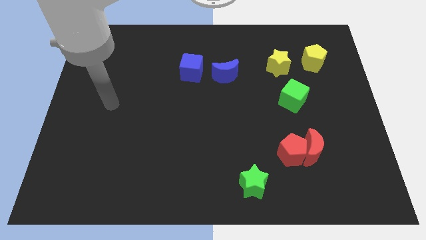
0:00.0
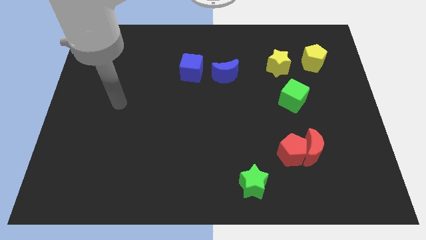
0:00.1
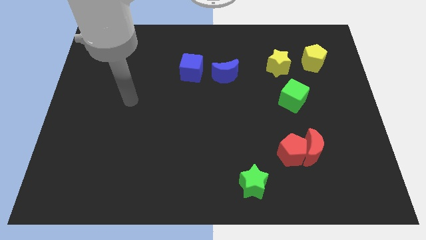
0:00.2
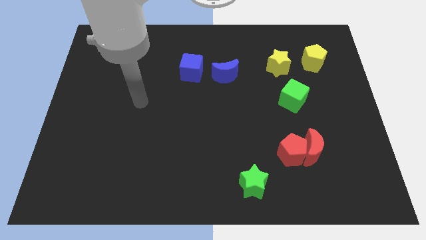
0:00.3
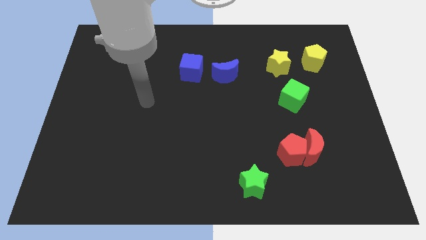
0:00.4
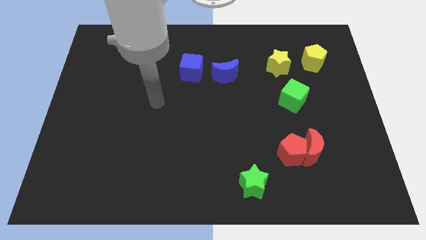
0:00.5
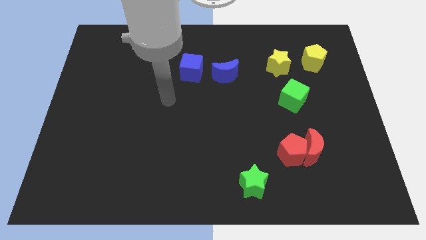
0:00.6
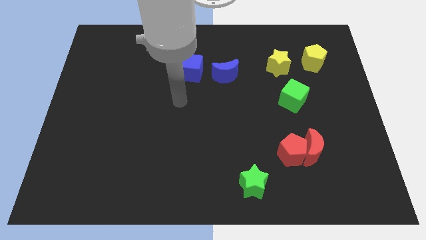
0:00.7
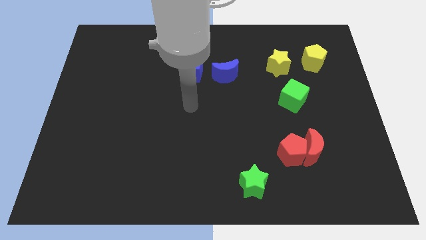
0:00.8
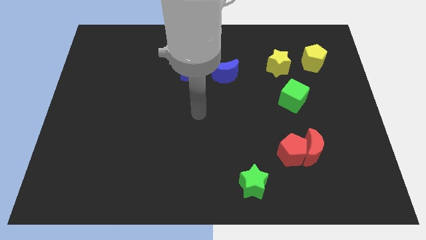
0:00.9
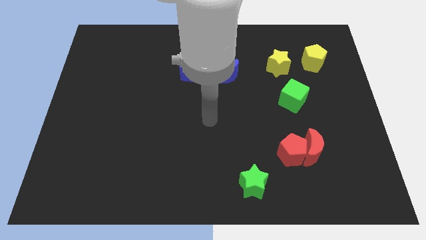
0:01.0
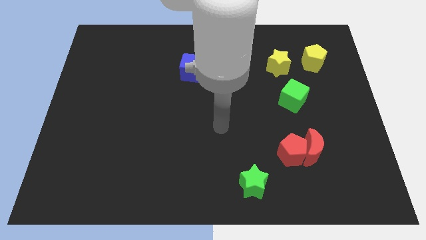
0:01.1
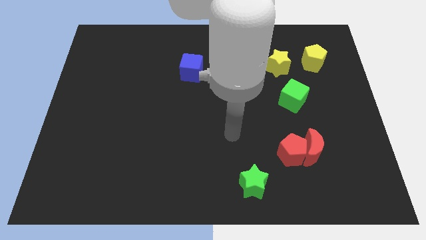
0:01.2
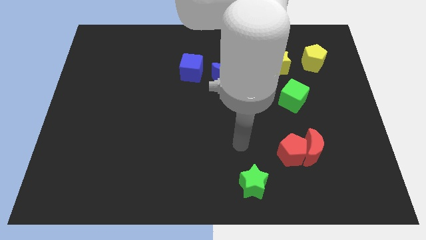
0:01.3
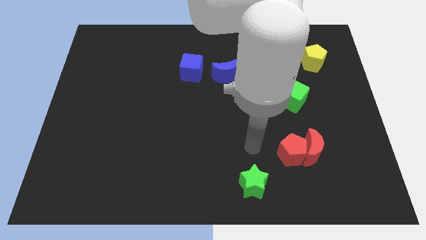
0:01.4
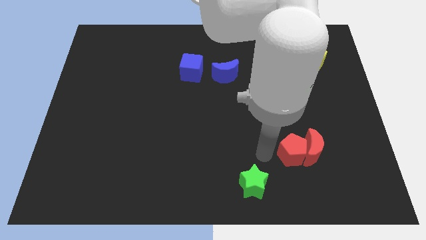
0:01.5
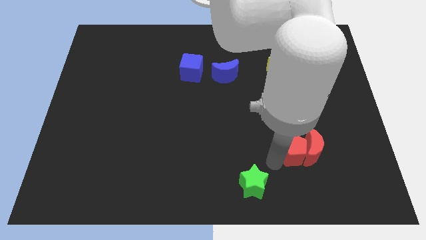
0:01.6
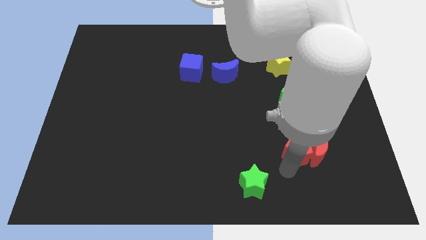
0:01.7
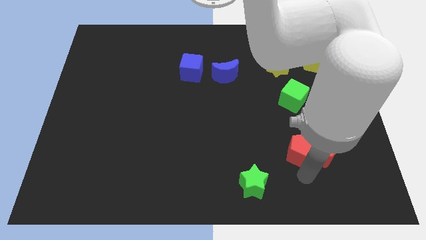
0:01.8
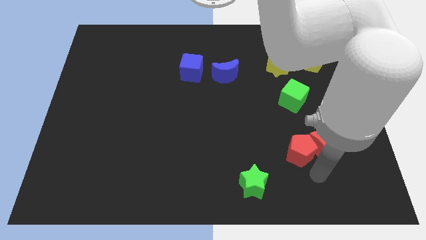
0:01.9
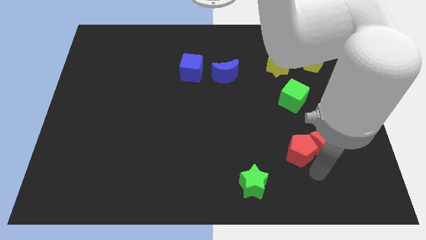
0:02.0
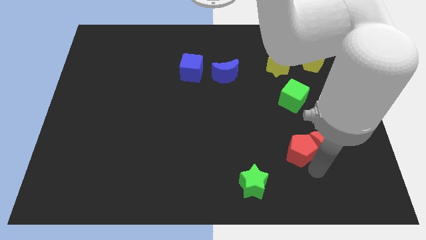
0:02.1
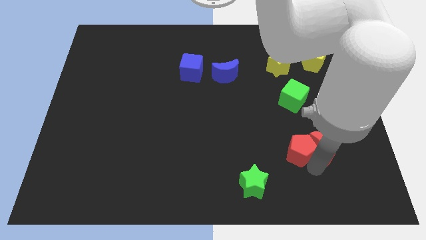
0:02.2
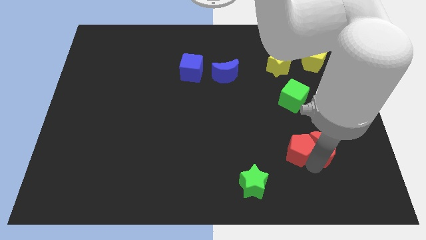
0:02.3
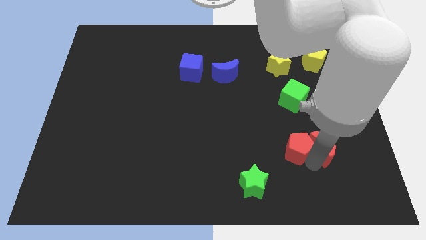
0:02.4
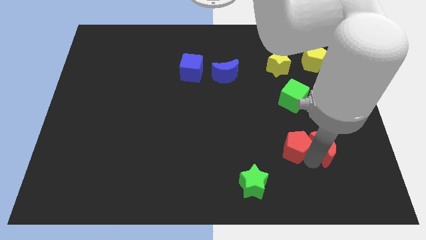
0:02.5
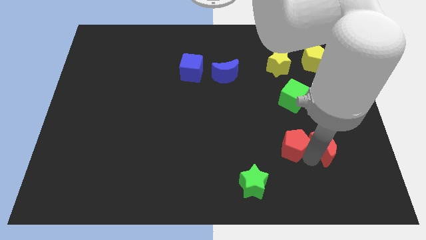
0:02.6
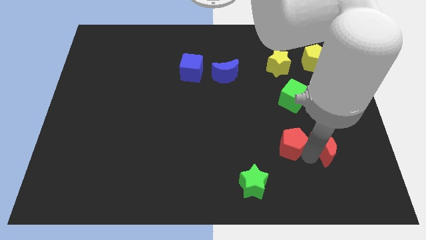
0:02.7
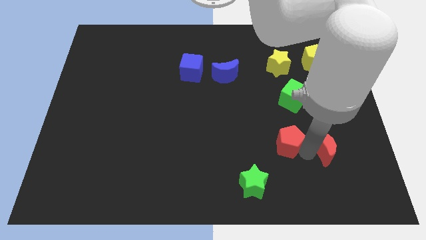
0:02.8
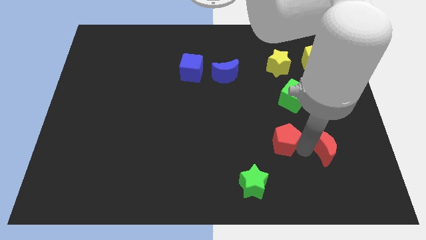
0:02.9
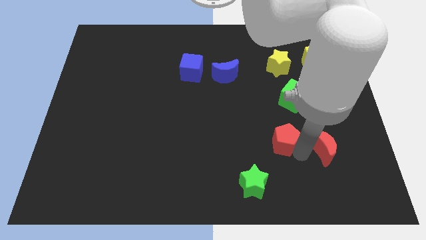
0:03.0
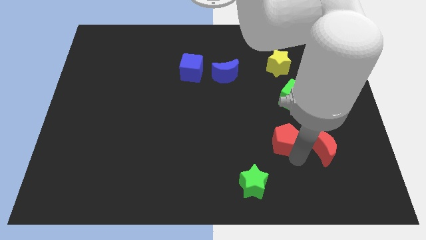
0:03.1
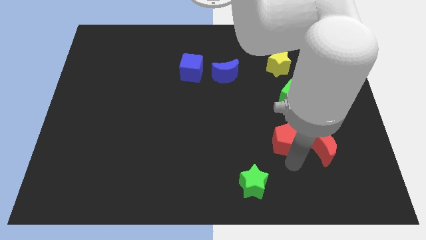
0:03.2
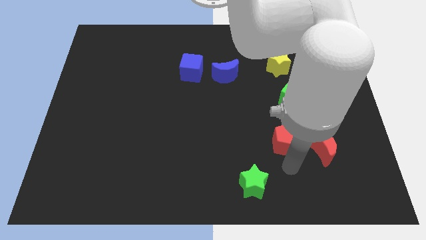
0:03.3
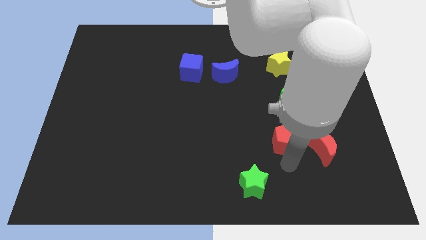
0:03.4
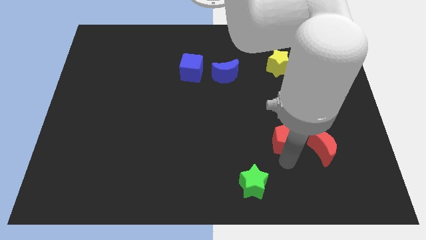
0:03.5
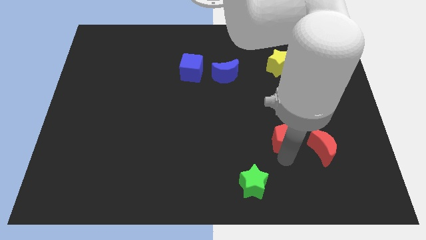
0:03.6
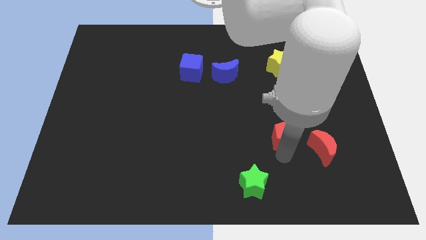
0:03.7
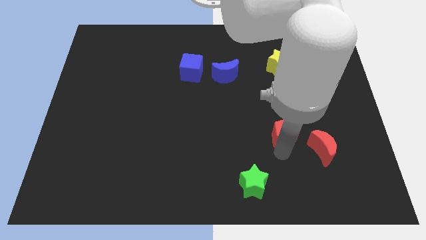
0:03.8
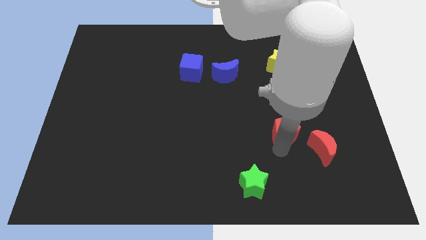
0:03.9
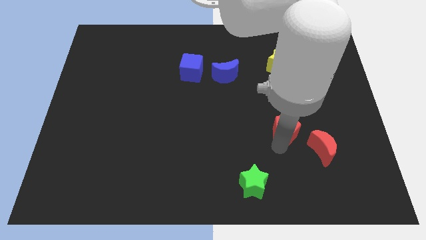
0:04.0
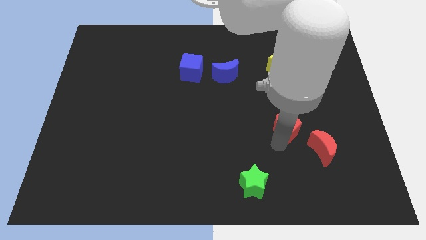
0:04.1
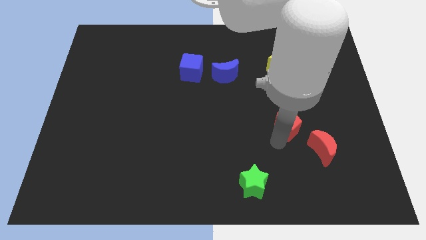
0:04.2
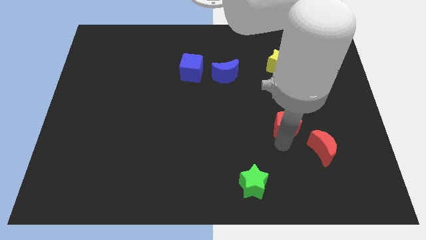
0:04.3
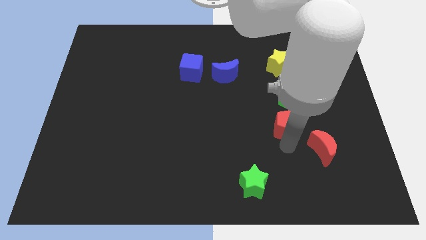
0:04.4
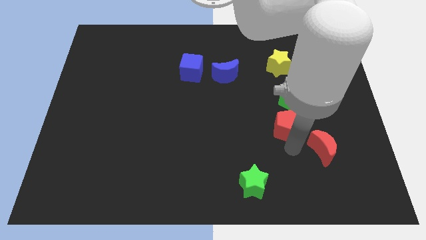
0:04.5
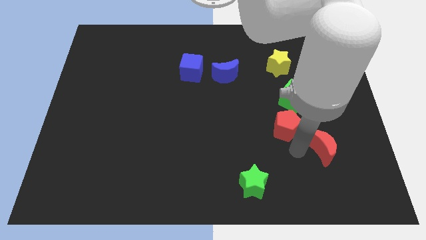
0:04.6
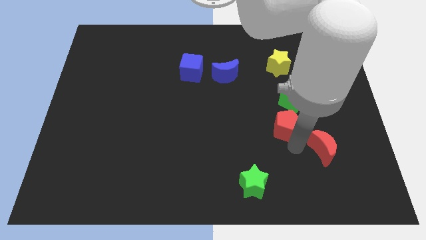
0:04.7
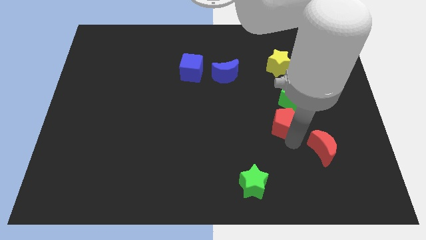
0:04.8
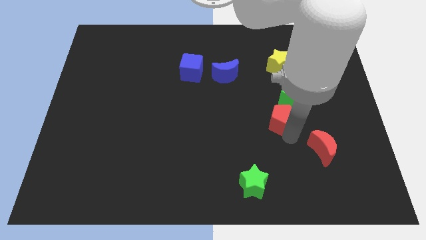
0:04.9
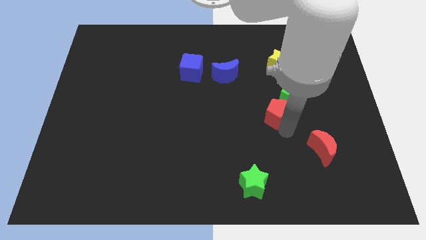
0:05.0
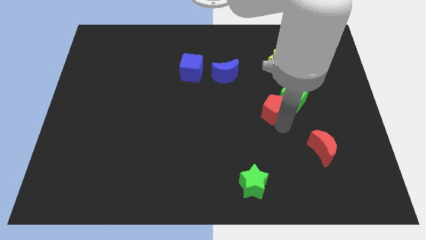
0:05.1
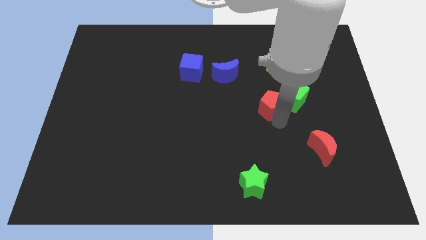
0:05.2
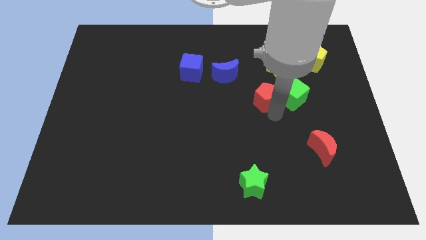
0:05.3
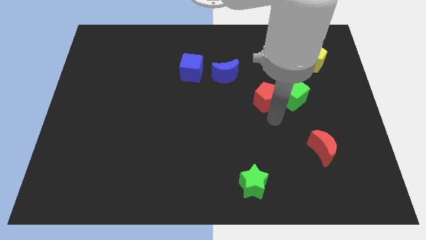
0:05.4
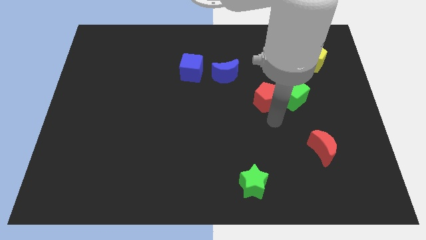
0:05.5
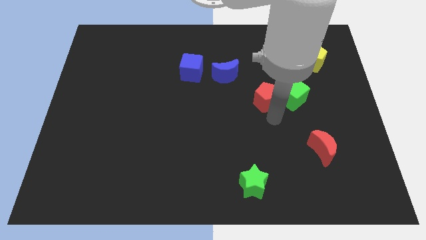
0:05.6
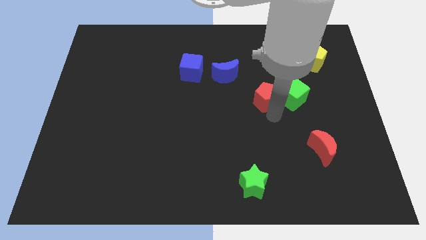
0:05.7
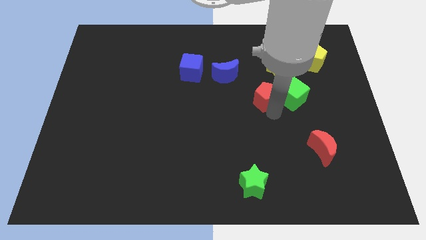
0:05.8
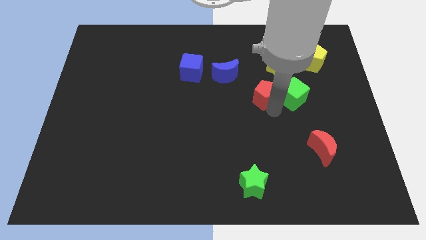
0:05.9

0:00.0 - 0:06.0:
slide the red pentagon to the bottom left of the yellow star

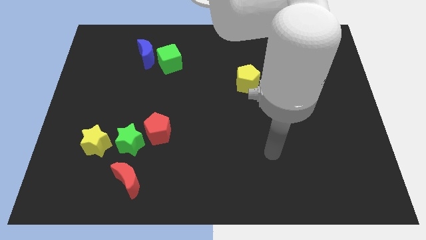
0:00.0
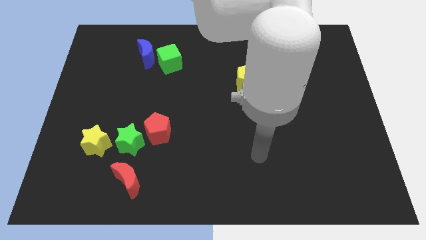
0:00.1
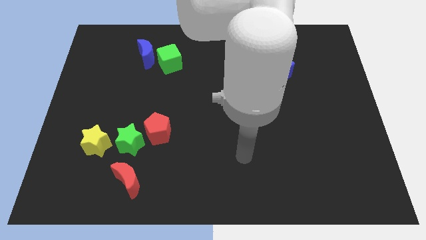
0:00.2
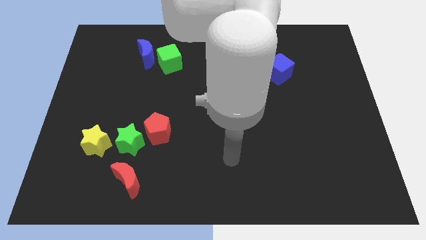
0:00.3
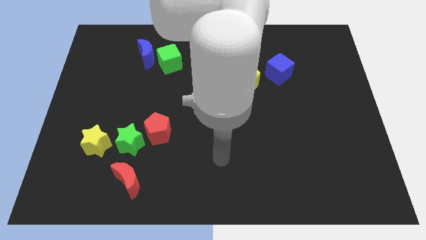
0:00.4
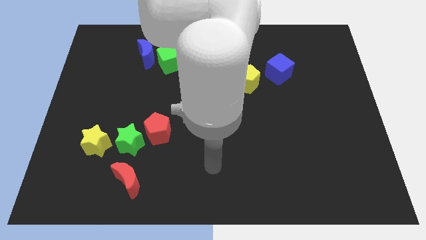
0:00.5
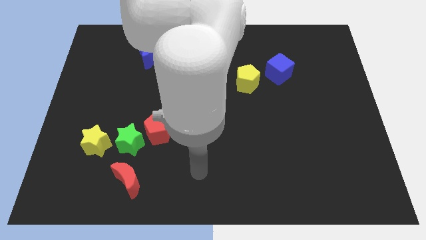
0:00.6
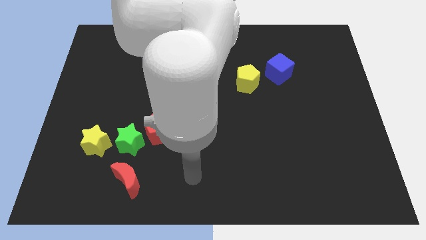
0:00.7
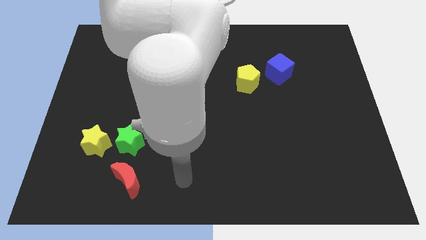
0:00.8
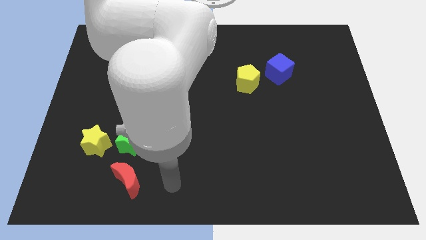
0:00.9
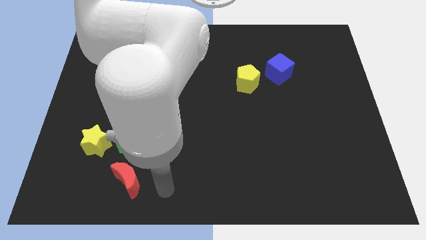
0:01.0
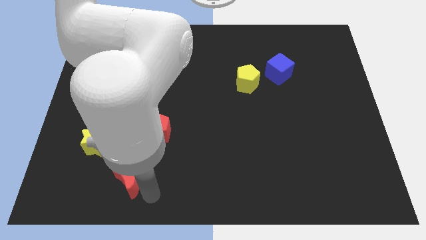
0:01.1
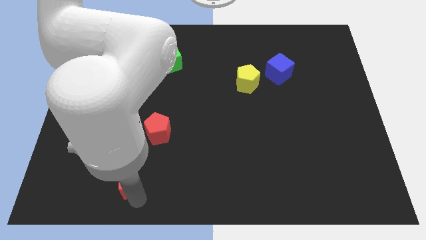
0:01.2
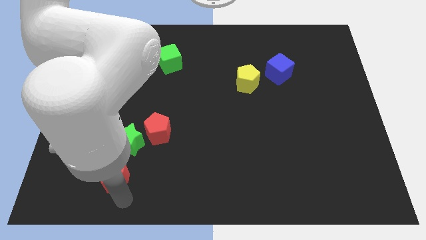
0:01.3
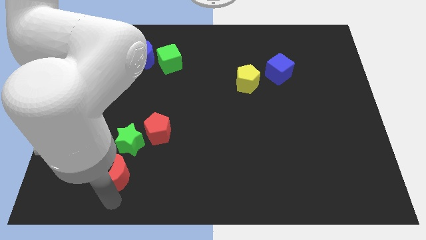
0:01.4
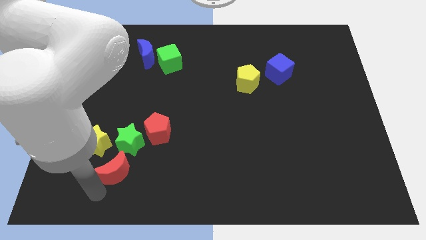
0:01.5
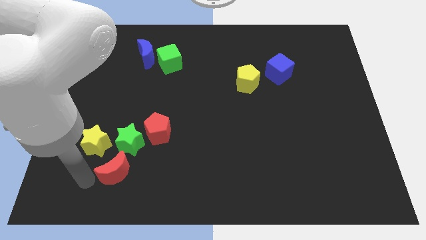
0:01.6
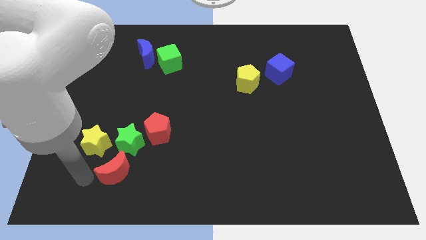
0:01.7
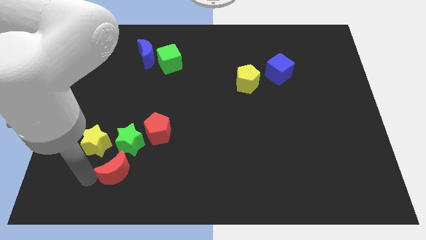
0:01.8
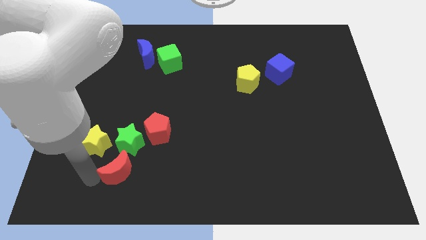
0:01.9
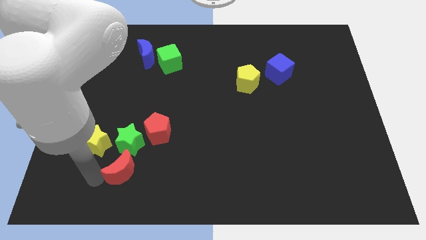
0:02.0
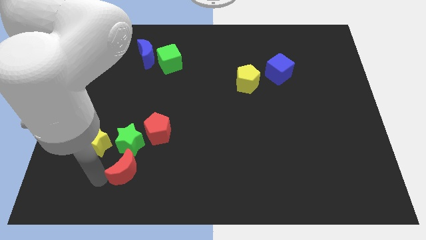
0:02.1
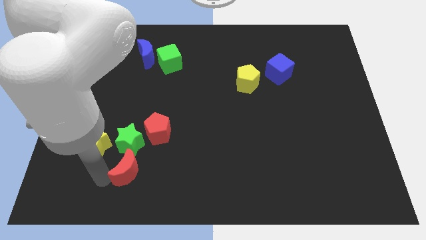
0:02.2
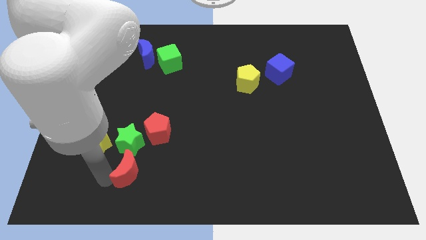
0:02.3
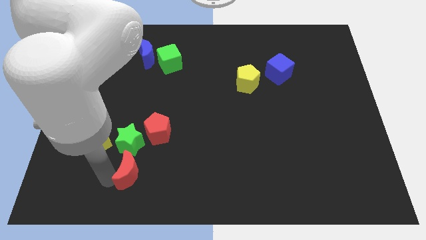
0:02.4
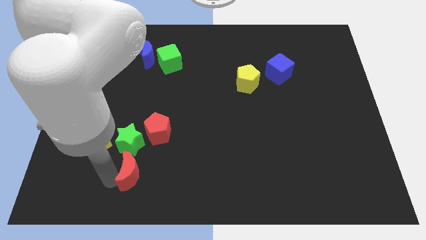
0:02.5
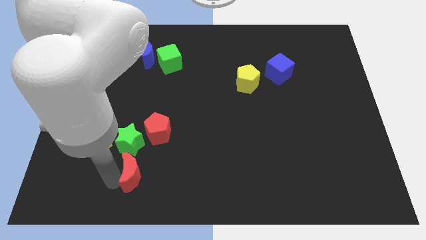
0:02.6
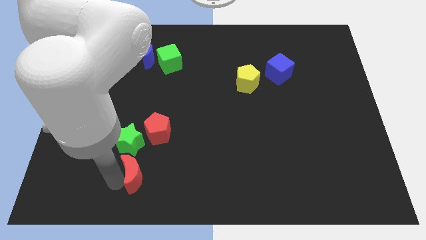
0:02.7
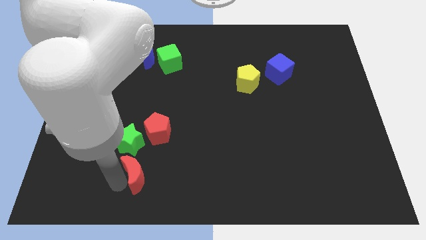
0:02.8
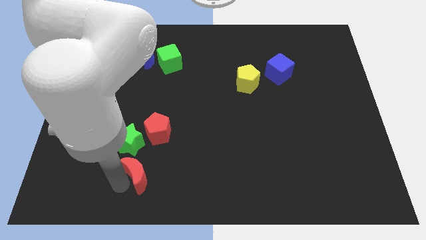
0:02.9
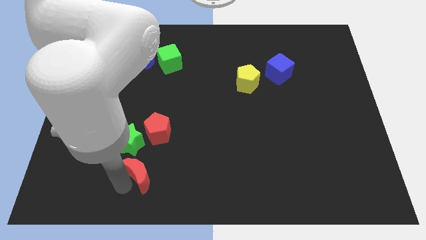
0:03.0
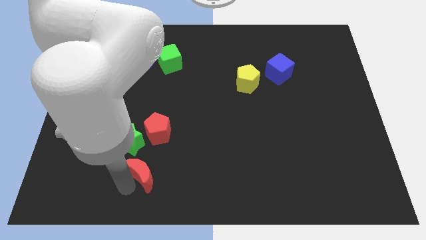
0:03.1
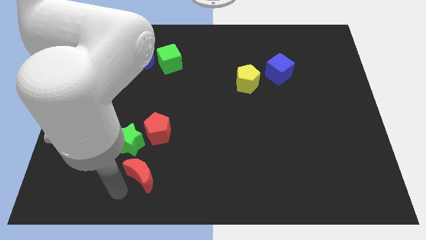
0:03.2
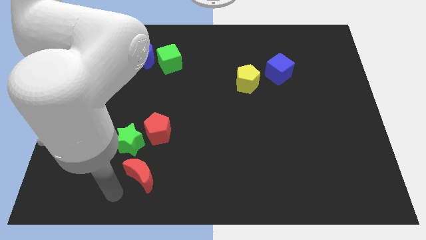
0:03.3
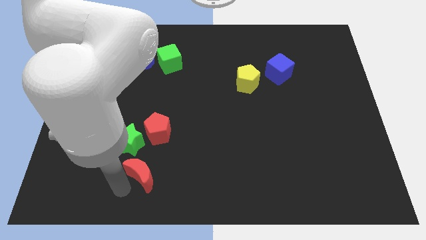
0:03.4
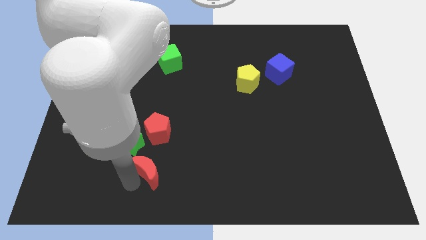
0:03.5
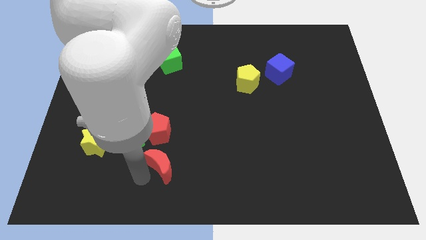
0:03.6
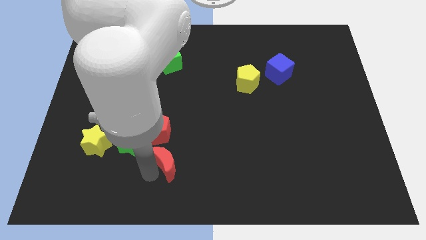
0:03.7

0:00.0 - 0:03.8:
slide the red moon to the bottom right side of the red pentagon
